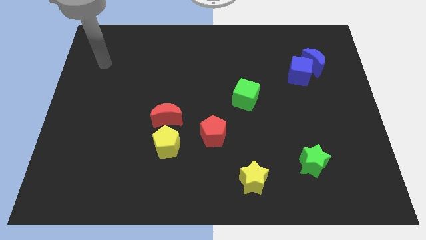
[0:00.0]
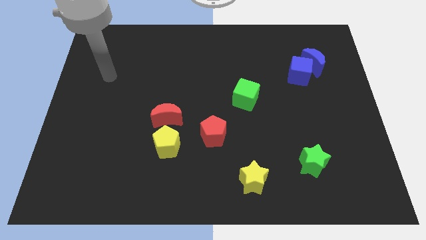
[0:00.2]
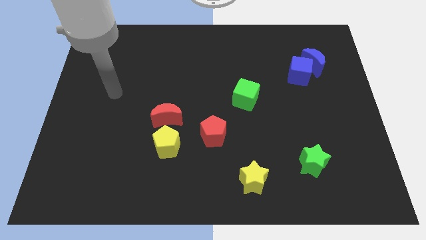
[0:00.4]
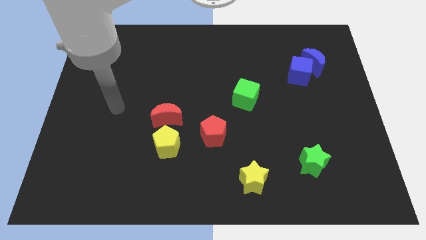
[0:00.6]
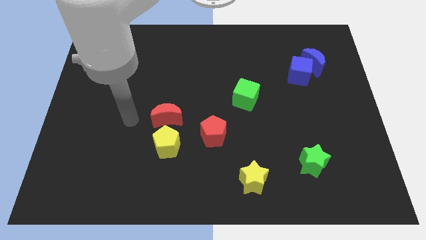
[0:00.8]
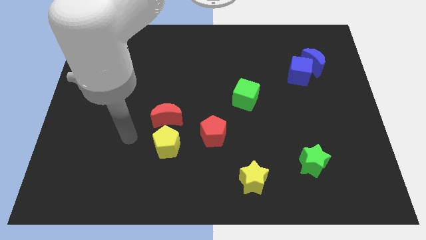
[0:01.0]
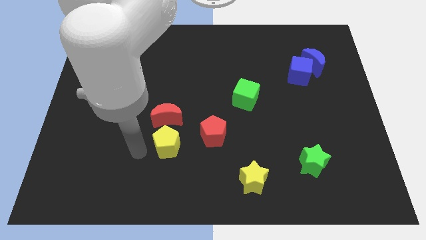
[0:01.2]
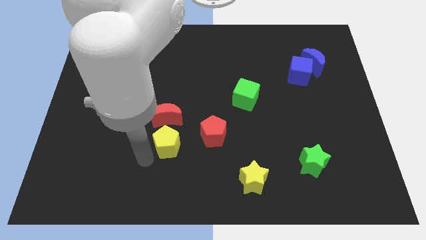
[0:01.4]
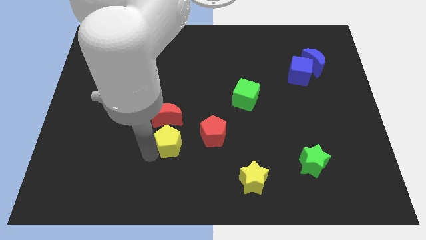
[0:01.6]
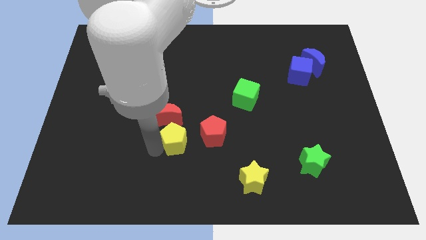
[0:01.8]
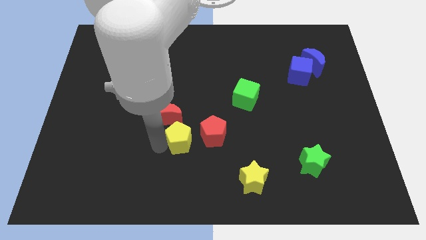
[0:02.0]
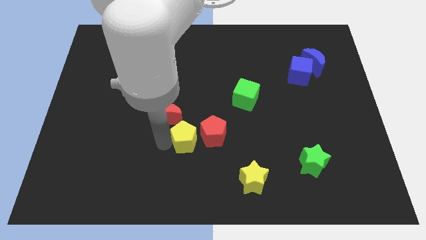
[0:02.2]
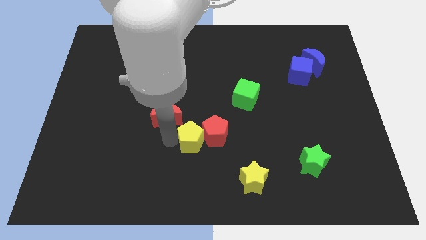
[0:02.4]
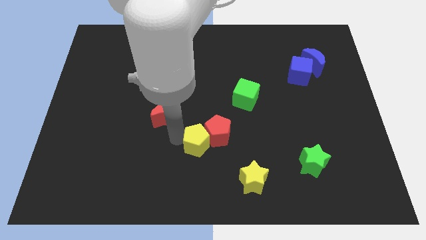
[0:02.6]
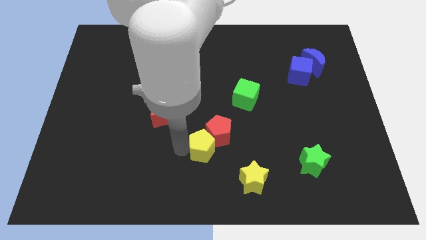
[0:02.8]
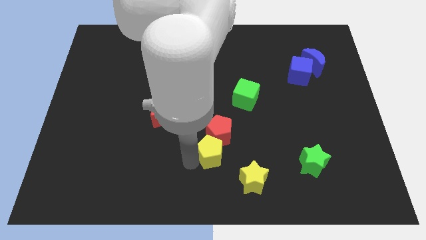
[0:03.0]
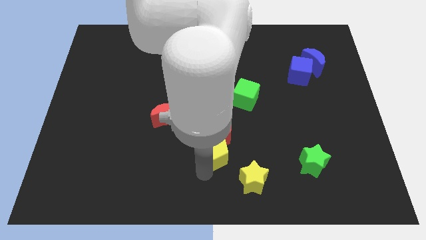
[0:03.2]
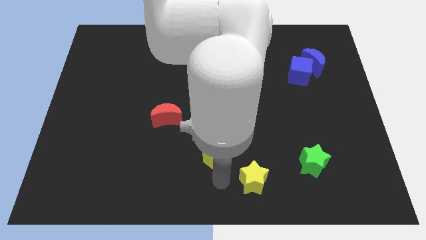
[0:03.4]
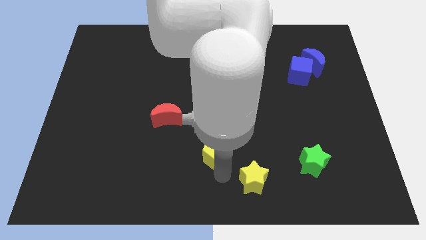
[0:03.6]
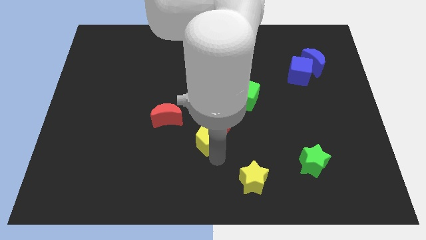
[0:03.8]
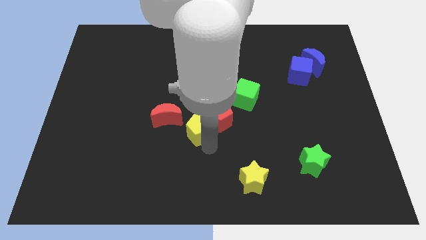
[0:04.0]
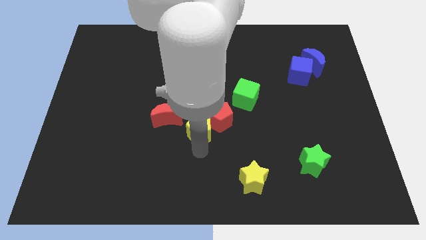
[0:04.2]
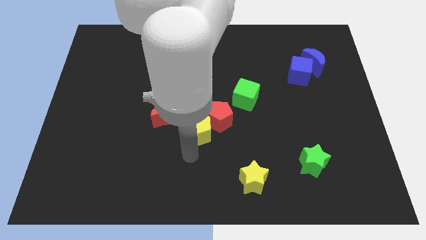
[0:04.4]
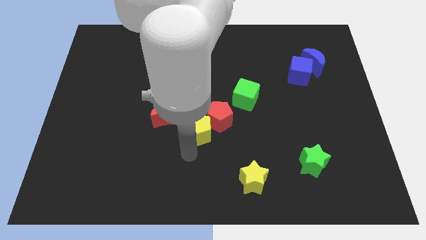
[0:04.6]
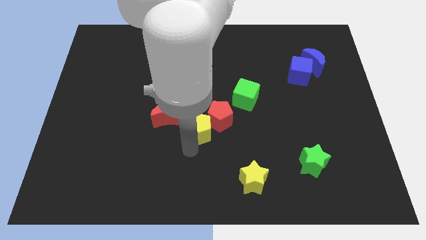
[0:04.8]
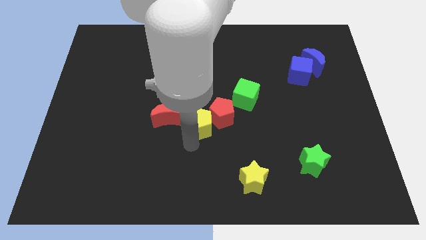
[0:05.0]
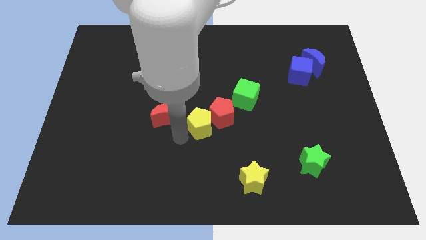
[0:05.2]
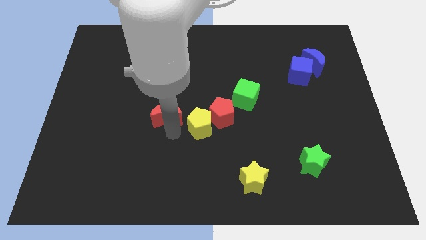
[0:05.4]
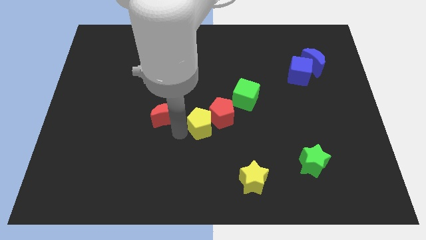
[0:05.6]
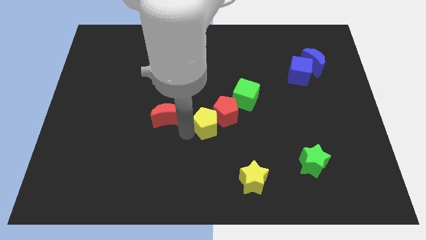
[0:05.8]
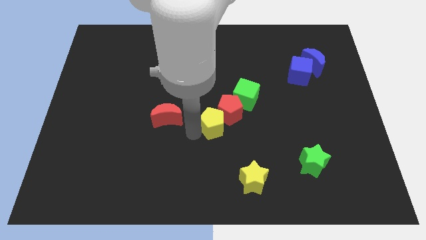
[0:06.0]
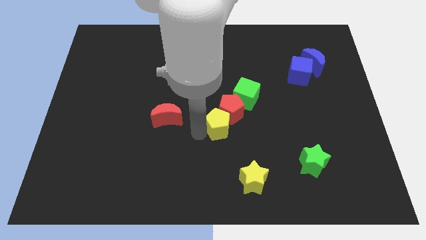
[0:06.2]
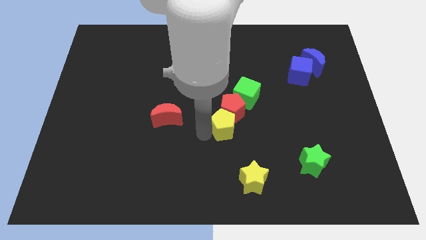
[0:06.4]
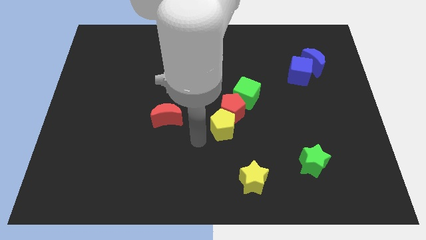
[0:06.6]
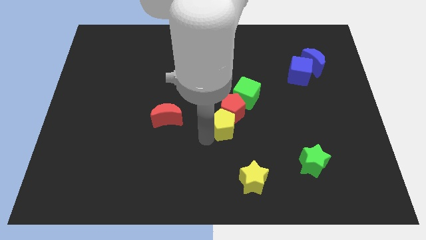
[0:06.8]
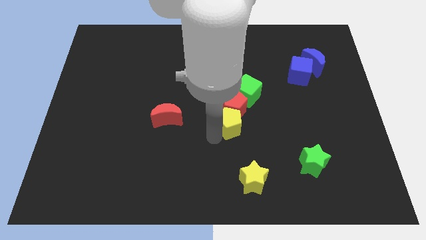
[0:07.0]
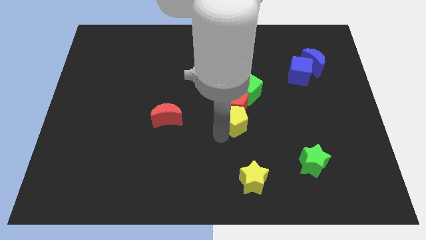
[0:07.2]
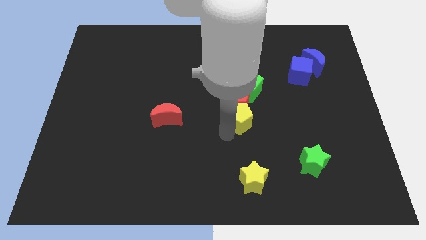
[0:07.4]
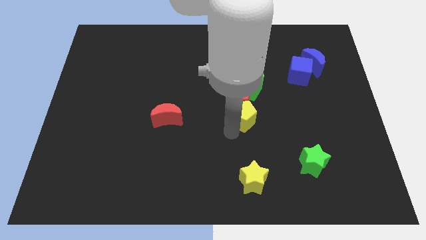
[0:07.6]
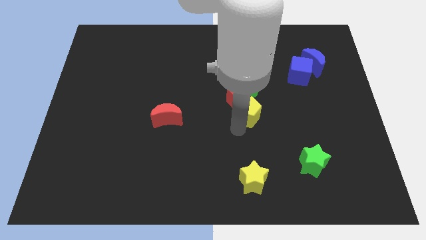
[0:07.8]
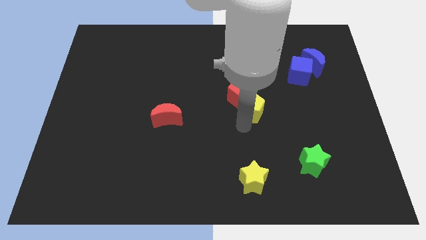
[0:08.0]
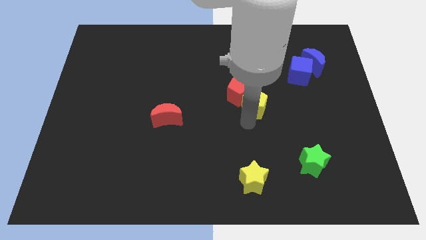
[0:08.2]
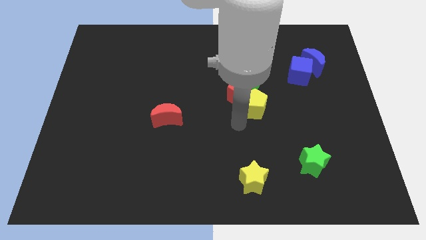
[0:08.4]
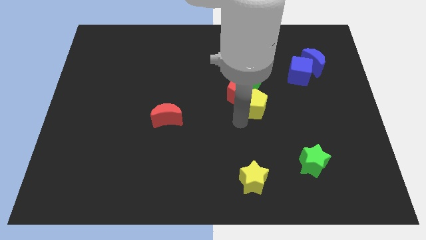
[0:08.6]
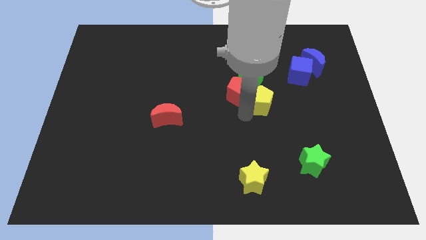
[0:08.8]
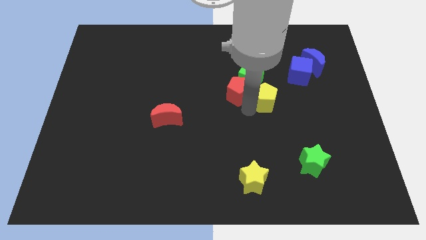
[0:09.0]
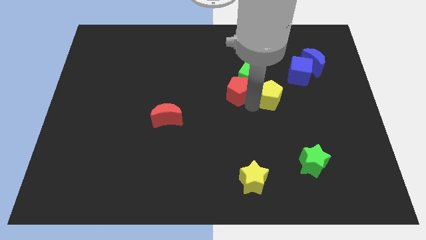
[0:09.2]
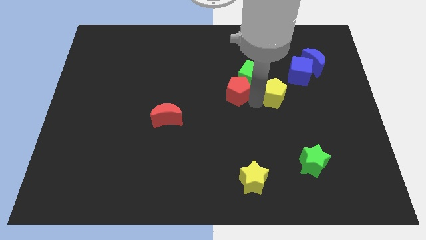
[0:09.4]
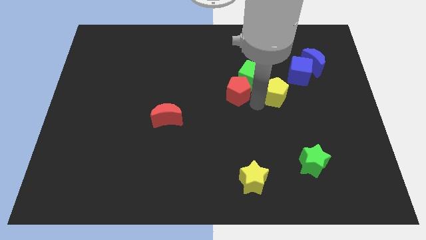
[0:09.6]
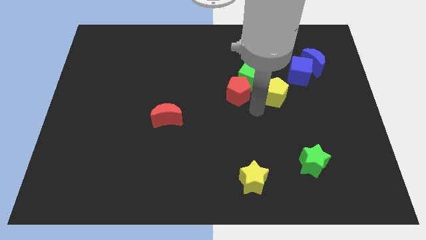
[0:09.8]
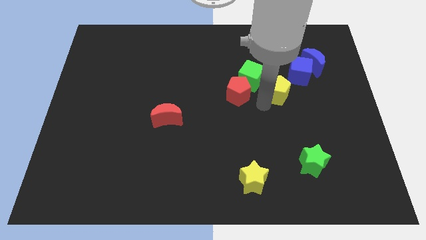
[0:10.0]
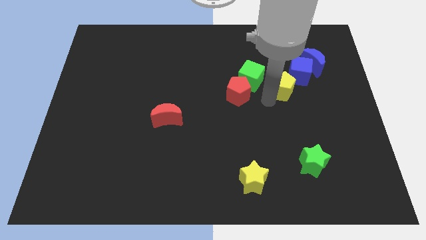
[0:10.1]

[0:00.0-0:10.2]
put the yellow pentagon to the bottom left side of the blue moon

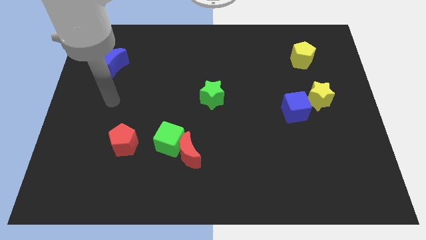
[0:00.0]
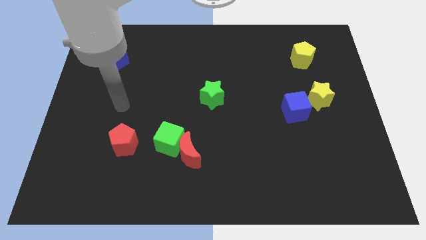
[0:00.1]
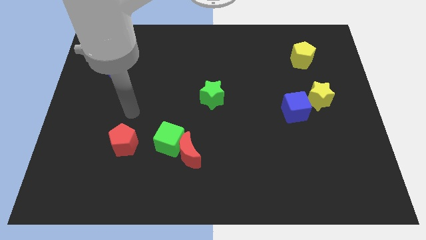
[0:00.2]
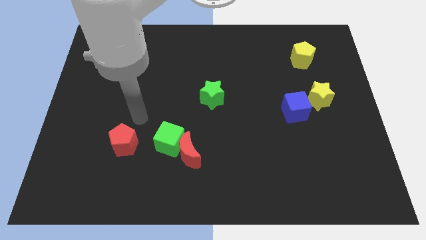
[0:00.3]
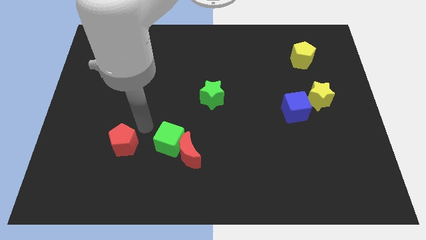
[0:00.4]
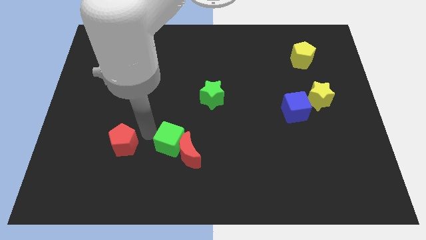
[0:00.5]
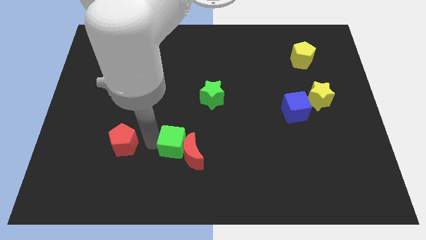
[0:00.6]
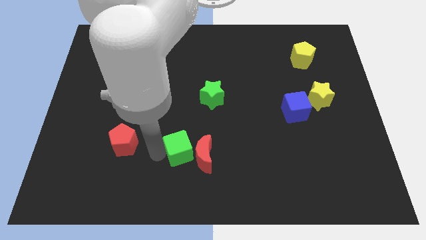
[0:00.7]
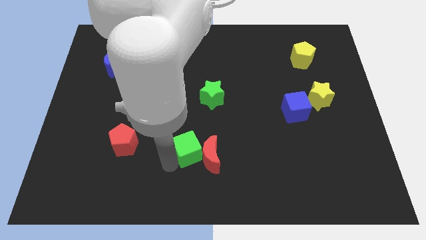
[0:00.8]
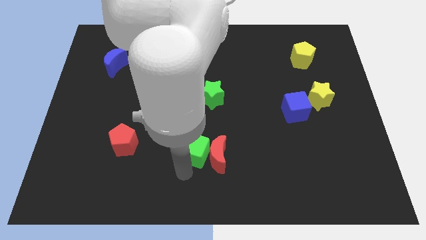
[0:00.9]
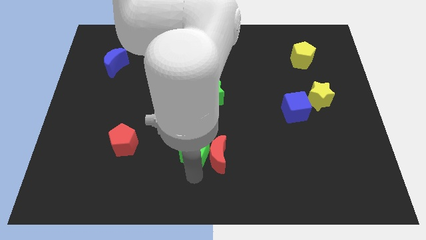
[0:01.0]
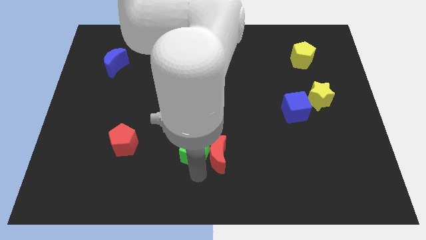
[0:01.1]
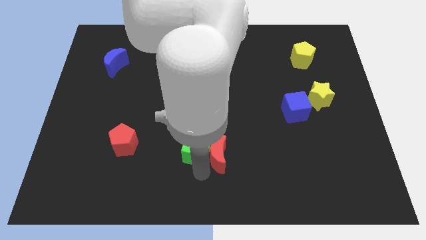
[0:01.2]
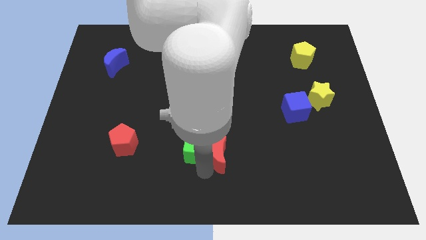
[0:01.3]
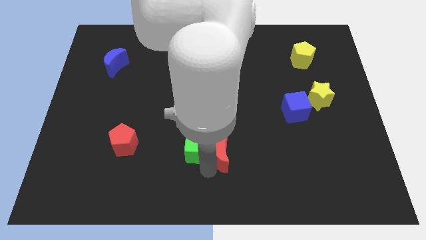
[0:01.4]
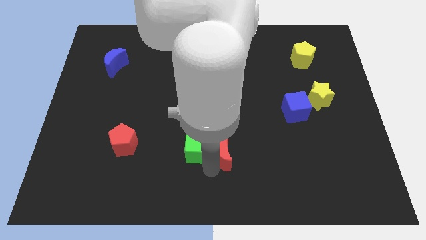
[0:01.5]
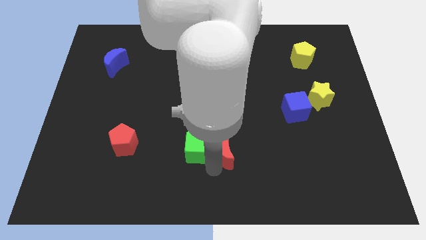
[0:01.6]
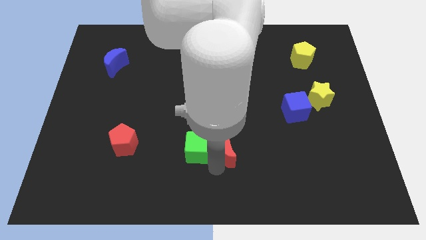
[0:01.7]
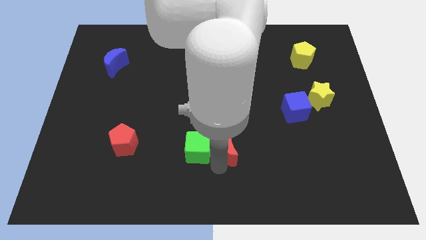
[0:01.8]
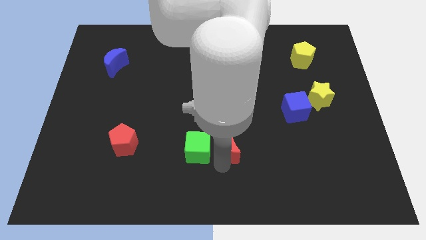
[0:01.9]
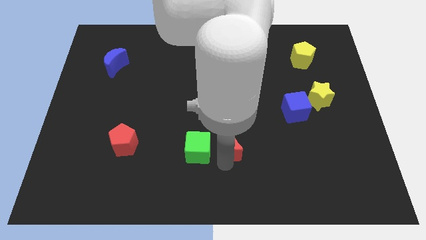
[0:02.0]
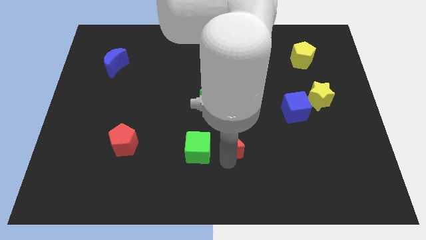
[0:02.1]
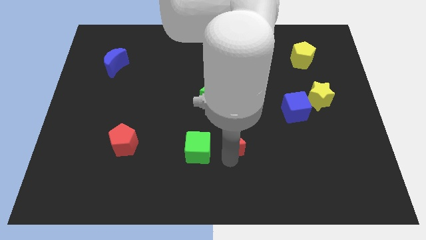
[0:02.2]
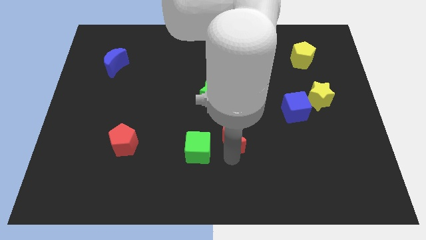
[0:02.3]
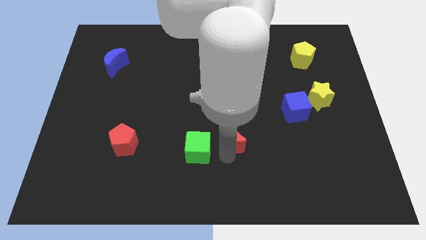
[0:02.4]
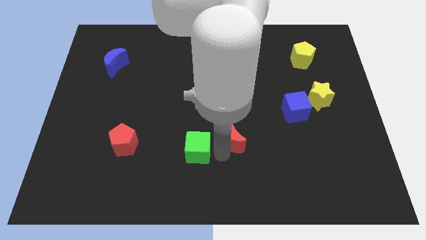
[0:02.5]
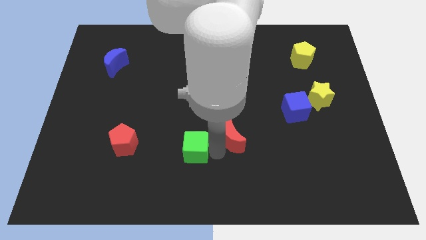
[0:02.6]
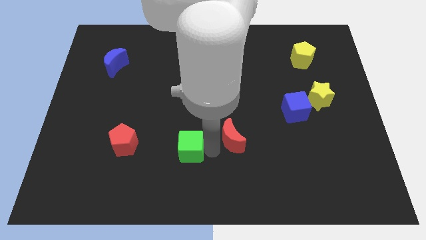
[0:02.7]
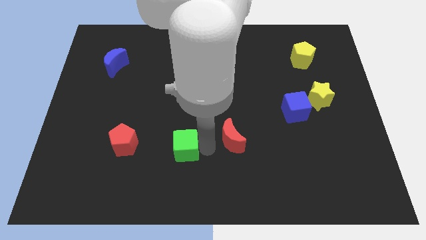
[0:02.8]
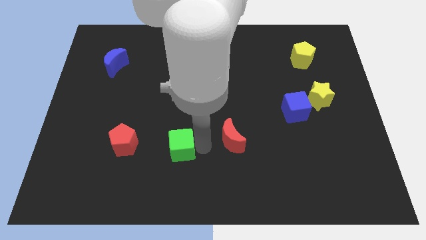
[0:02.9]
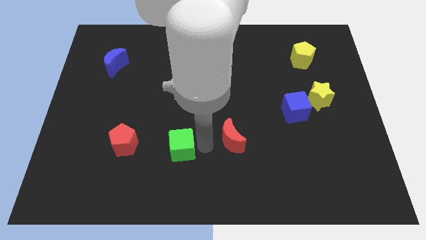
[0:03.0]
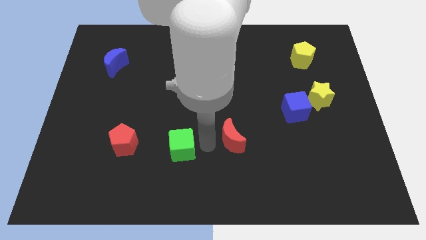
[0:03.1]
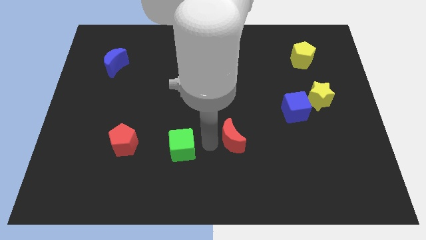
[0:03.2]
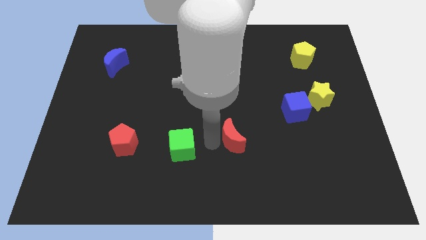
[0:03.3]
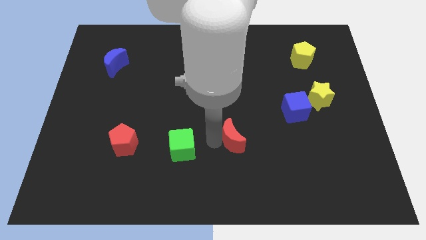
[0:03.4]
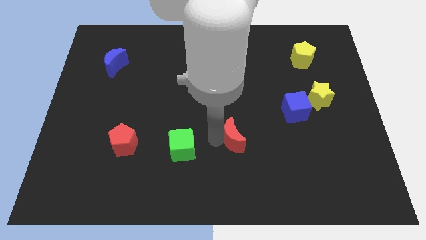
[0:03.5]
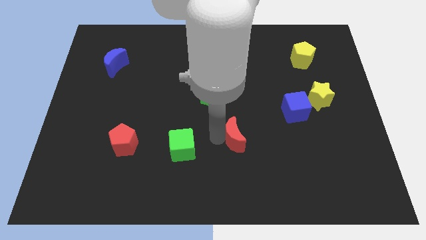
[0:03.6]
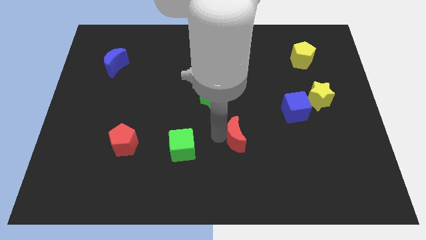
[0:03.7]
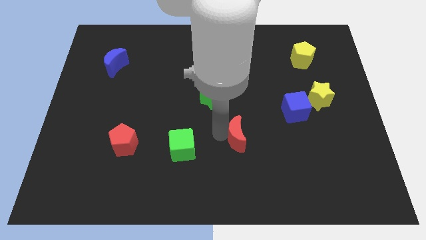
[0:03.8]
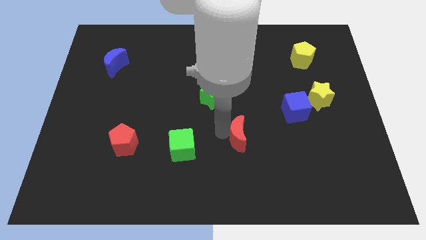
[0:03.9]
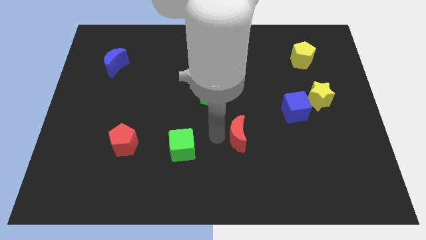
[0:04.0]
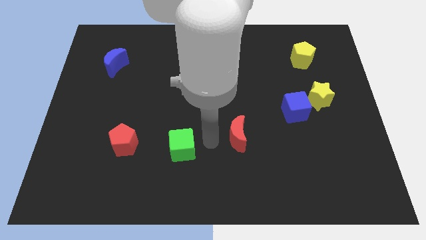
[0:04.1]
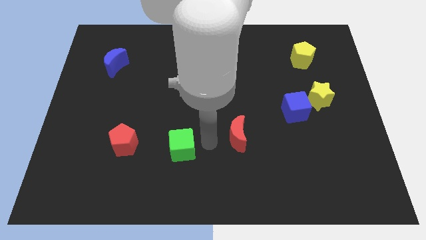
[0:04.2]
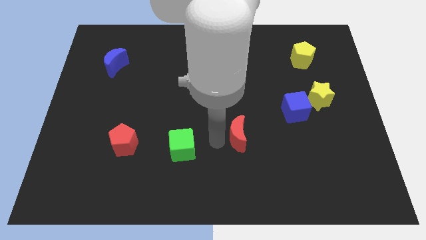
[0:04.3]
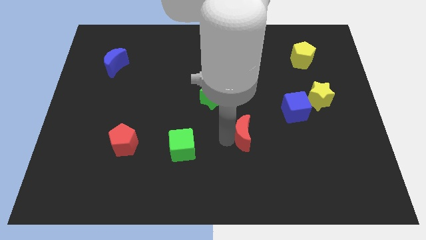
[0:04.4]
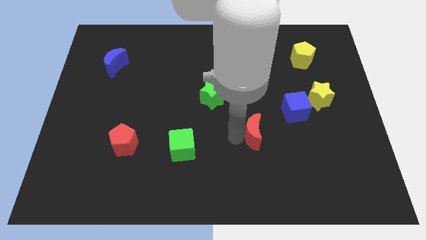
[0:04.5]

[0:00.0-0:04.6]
move the red moon diagonally down and to the left of the blue cube
